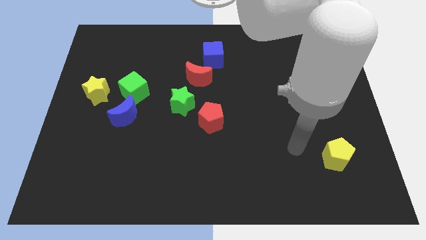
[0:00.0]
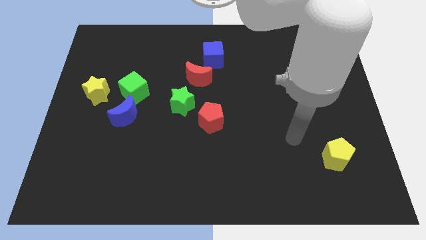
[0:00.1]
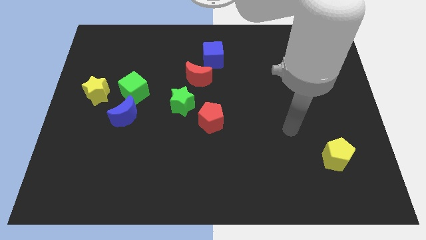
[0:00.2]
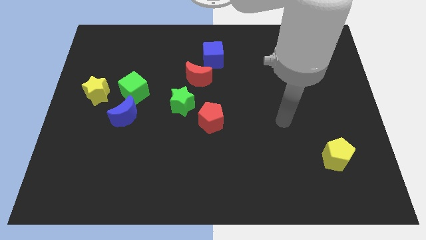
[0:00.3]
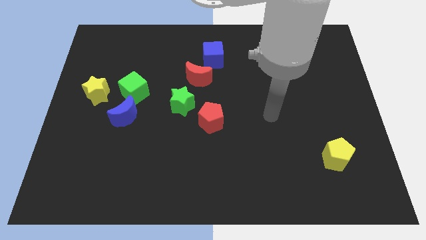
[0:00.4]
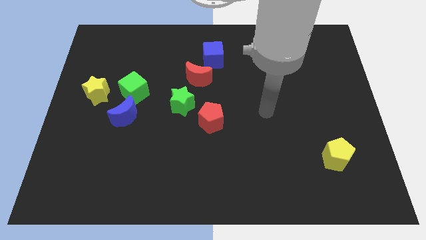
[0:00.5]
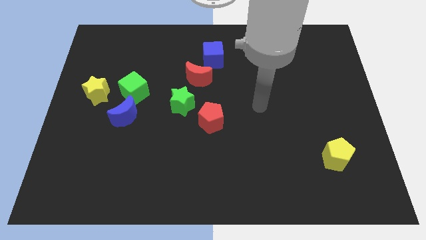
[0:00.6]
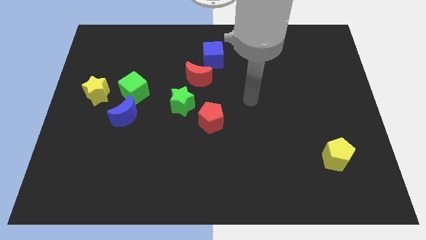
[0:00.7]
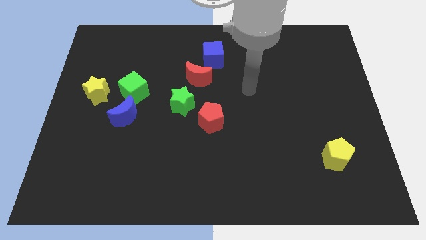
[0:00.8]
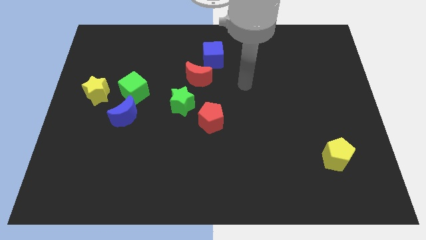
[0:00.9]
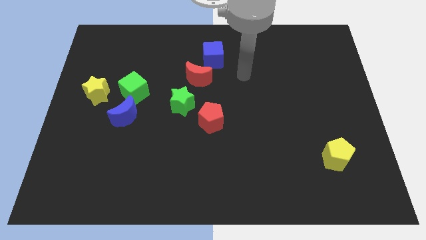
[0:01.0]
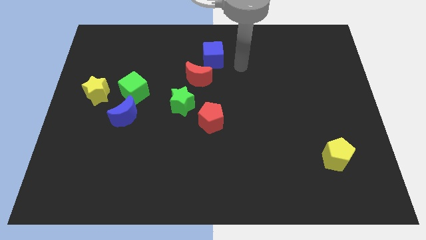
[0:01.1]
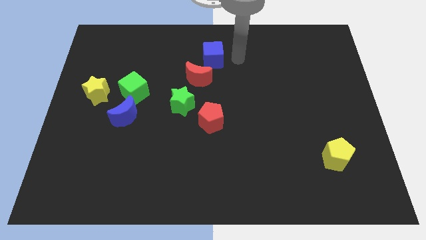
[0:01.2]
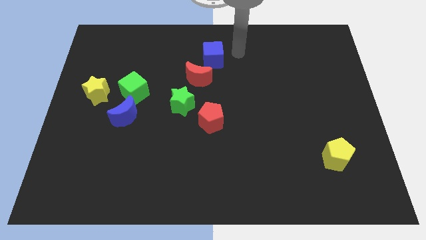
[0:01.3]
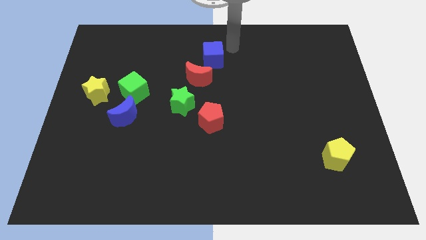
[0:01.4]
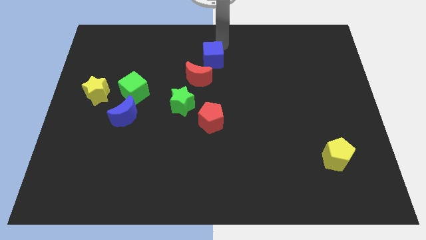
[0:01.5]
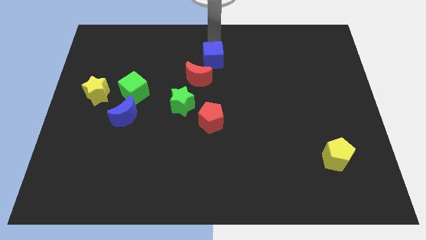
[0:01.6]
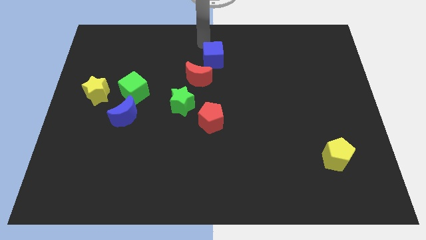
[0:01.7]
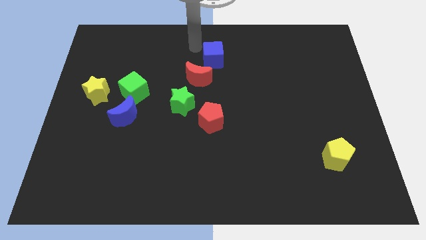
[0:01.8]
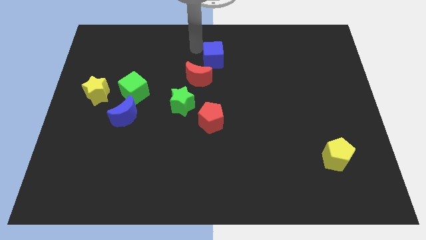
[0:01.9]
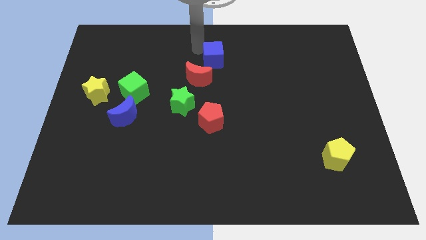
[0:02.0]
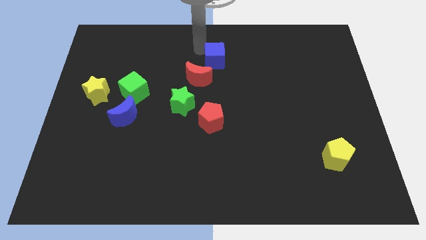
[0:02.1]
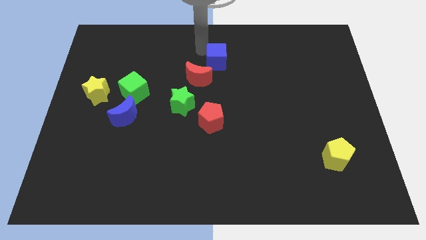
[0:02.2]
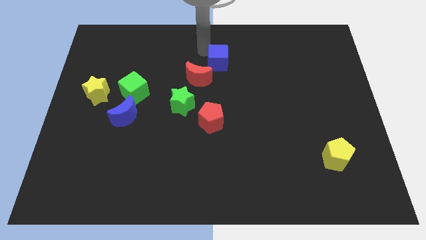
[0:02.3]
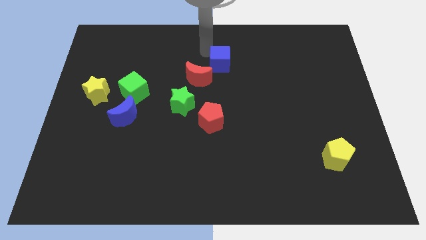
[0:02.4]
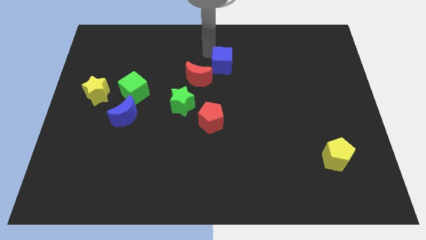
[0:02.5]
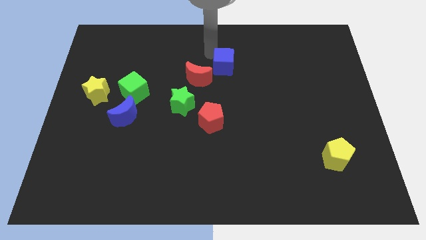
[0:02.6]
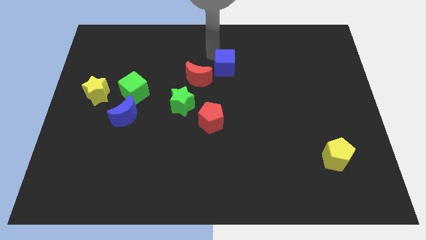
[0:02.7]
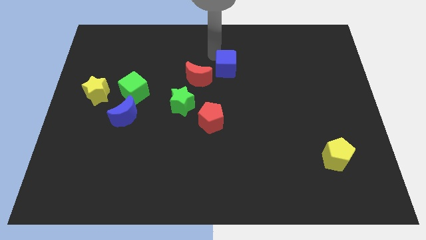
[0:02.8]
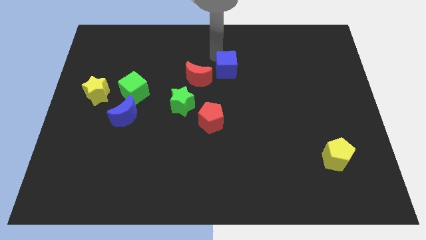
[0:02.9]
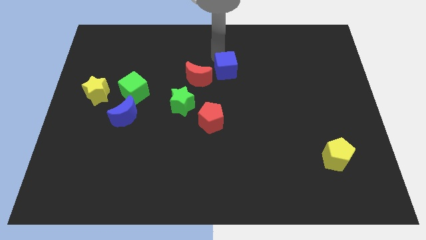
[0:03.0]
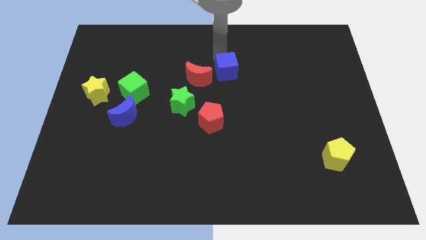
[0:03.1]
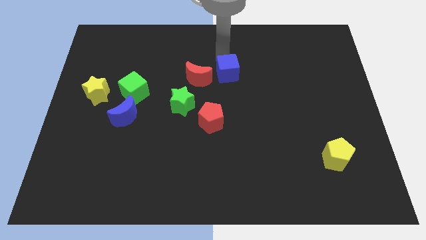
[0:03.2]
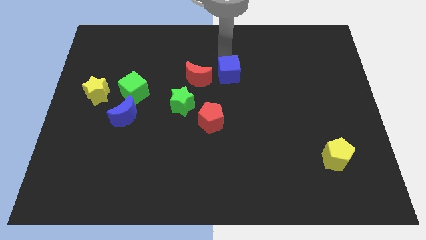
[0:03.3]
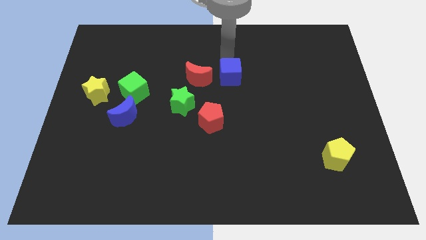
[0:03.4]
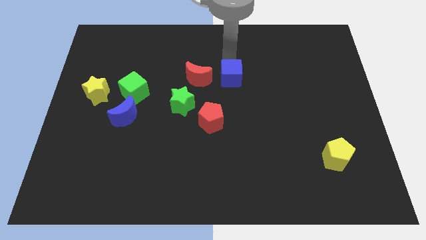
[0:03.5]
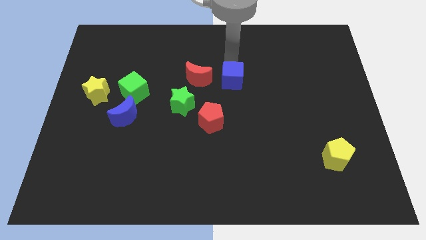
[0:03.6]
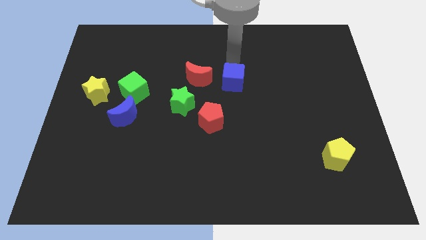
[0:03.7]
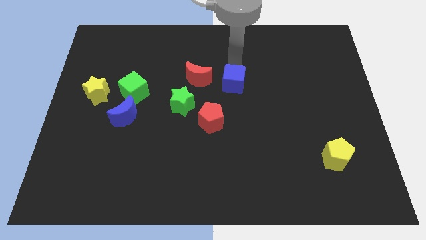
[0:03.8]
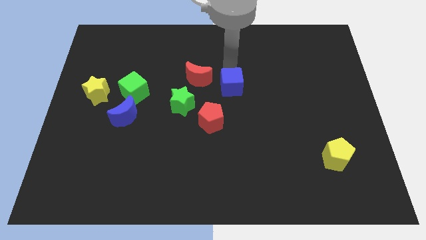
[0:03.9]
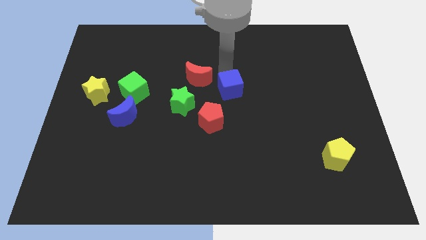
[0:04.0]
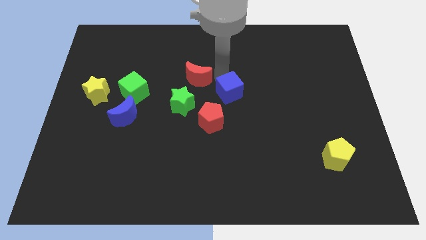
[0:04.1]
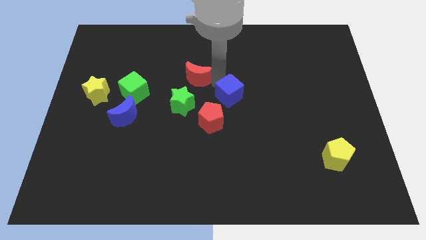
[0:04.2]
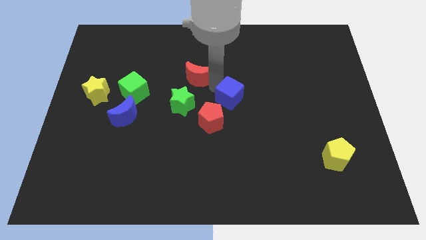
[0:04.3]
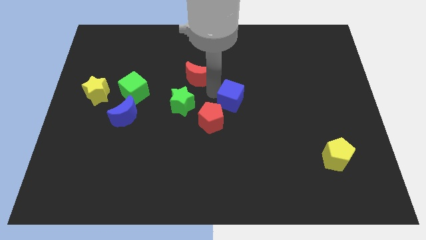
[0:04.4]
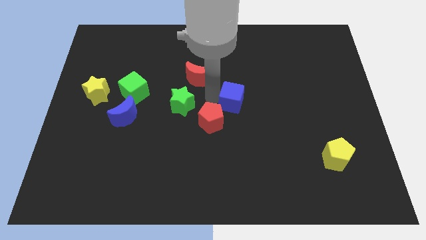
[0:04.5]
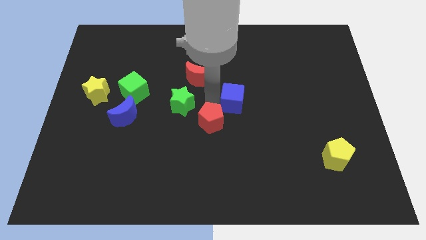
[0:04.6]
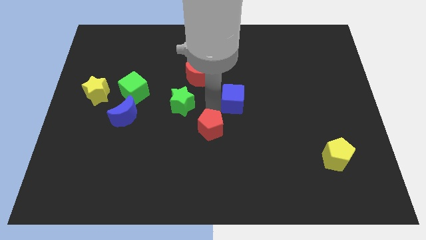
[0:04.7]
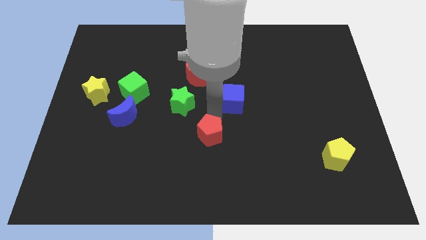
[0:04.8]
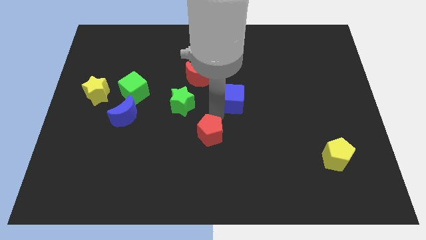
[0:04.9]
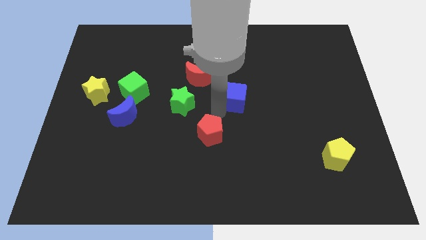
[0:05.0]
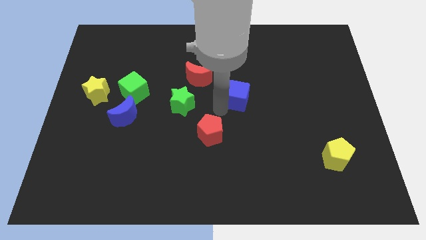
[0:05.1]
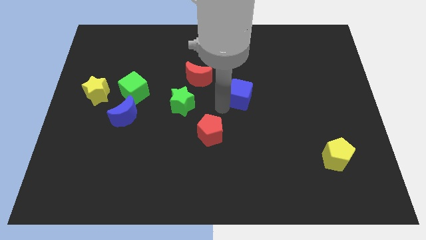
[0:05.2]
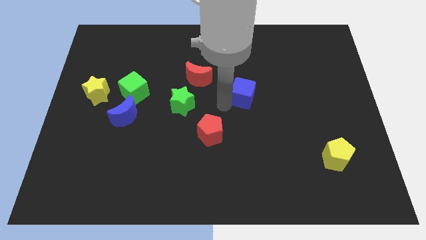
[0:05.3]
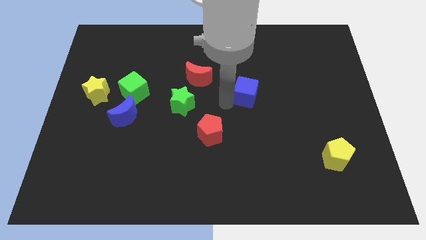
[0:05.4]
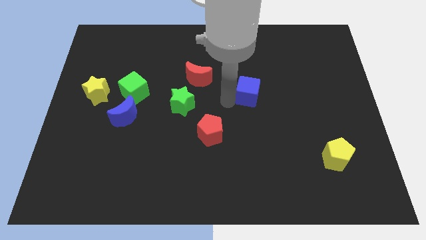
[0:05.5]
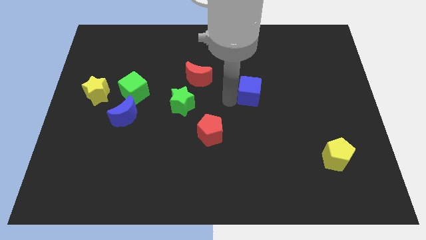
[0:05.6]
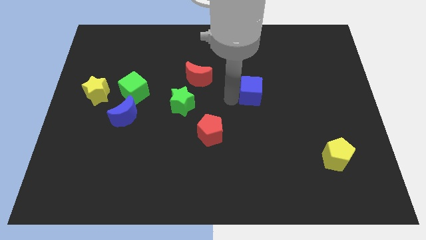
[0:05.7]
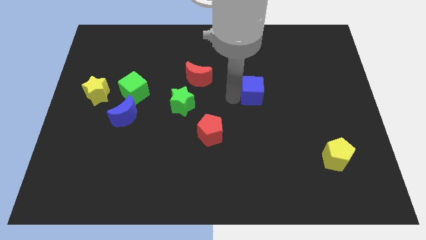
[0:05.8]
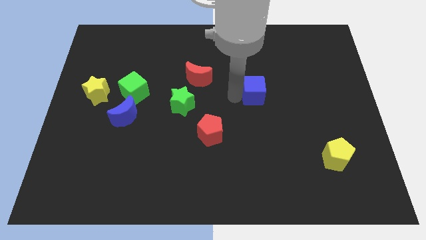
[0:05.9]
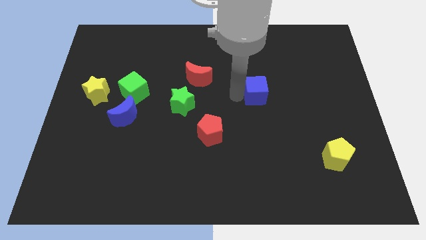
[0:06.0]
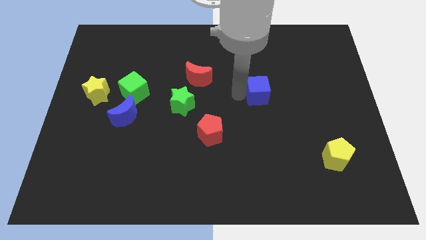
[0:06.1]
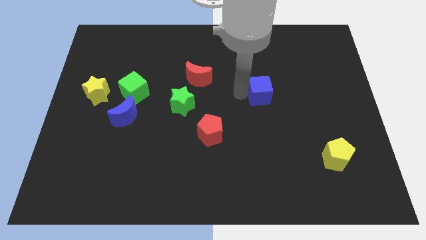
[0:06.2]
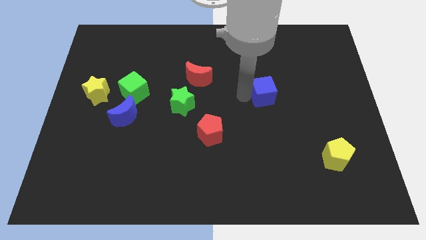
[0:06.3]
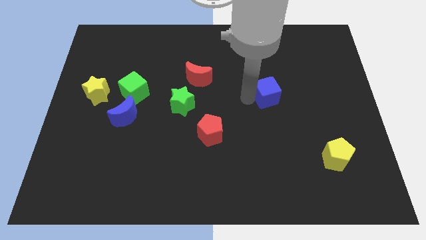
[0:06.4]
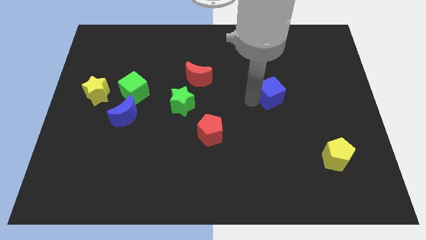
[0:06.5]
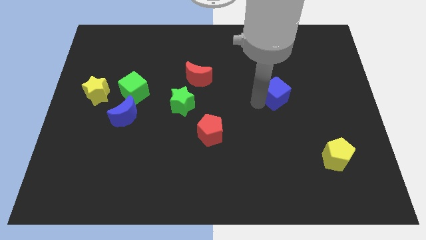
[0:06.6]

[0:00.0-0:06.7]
slide the blue cube diagonally down and to the right

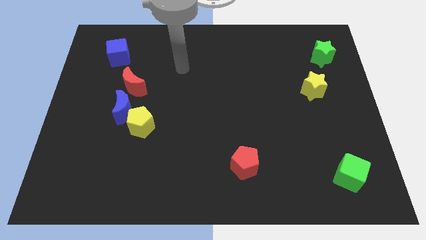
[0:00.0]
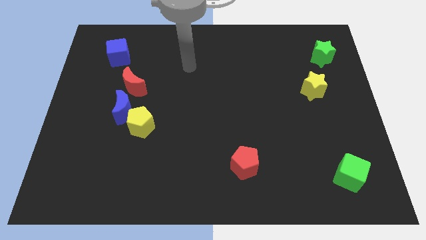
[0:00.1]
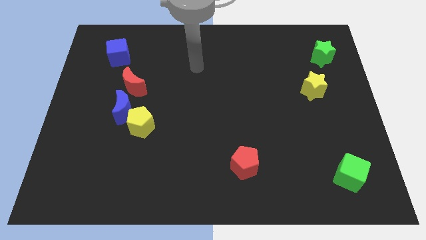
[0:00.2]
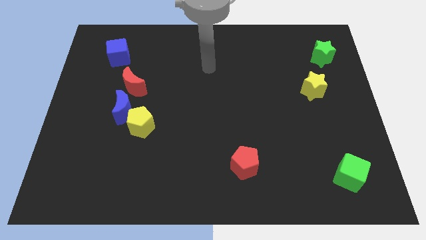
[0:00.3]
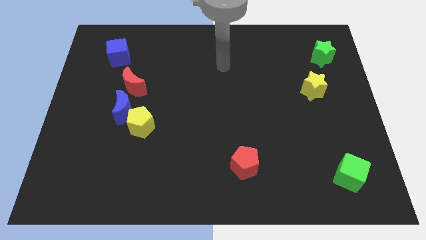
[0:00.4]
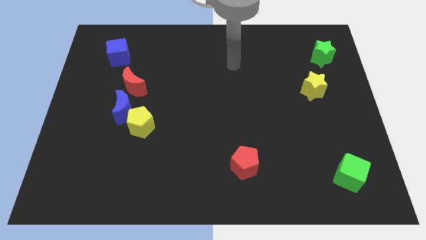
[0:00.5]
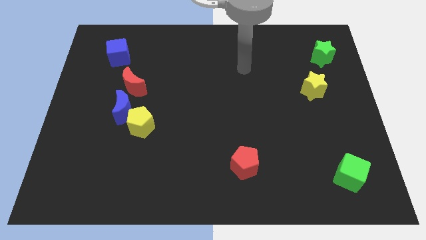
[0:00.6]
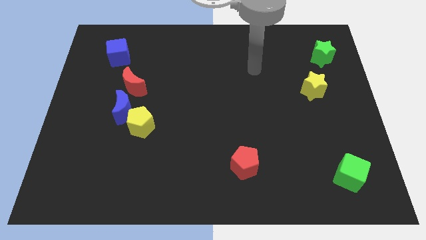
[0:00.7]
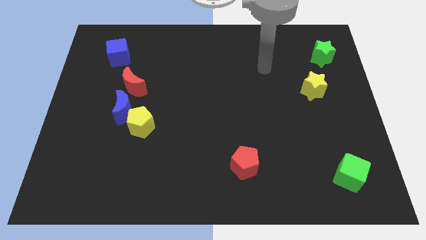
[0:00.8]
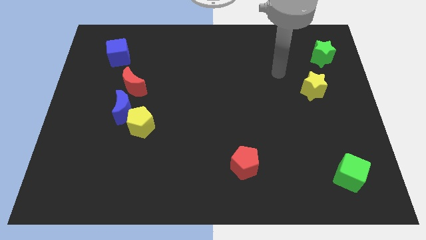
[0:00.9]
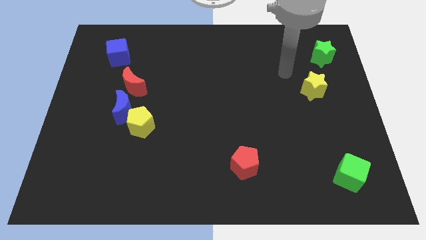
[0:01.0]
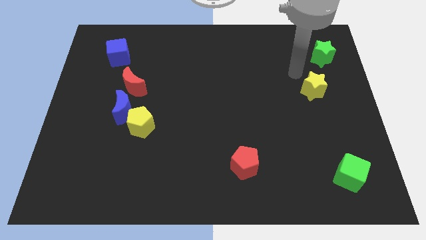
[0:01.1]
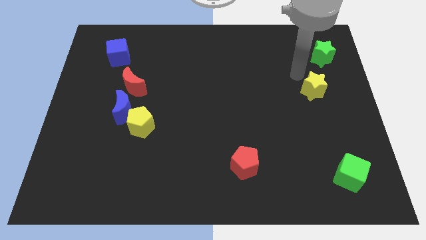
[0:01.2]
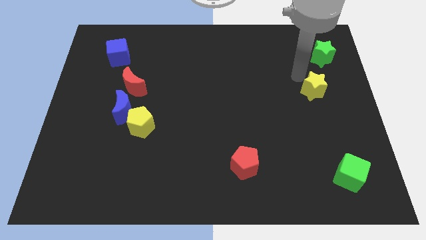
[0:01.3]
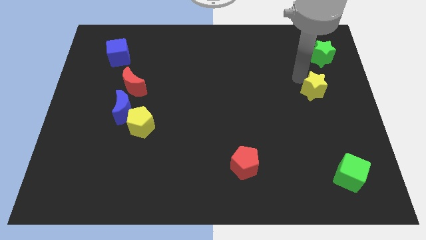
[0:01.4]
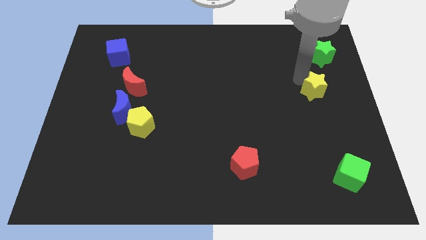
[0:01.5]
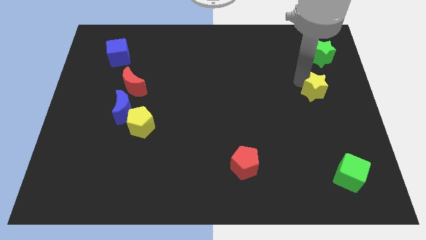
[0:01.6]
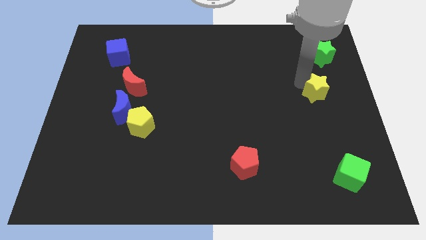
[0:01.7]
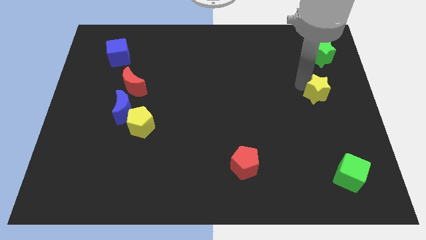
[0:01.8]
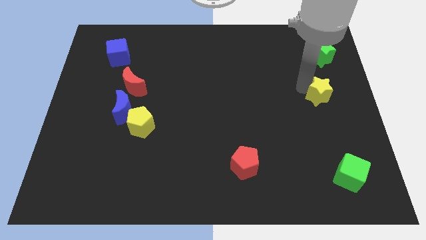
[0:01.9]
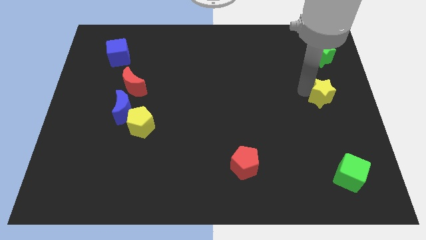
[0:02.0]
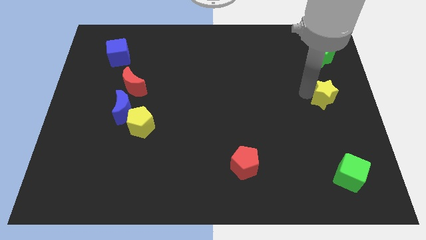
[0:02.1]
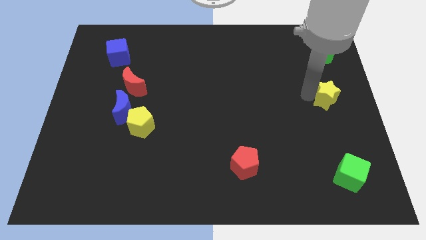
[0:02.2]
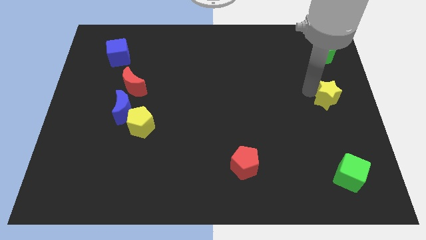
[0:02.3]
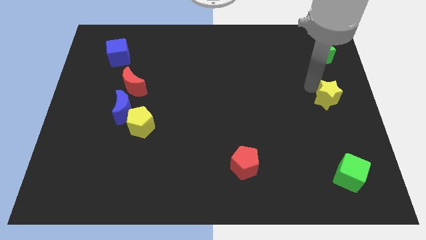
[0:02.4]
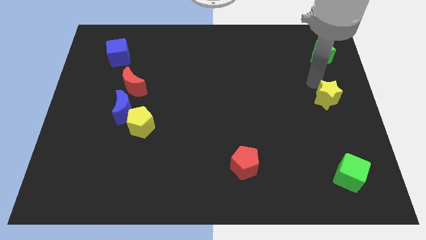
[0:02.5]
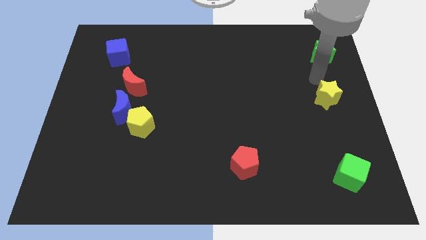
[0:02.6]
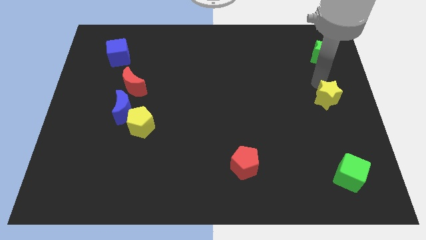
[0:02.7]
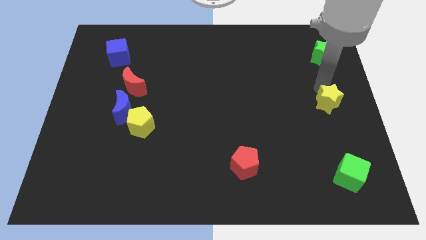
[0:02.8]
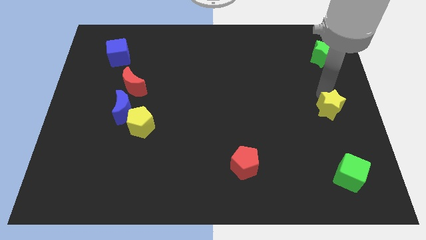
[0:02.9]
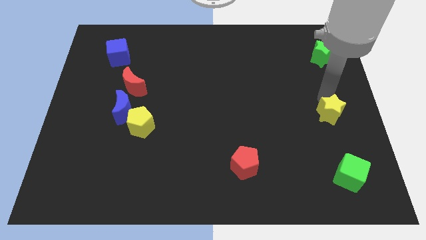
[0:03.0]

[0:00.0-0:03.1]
slide the yellow star a little down
